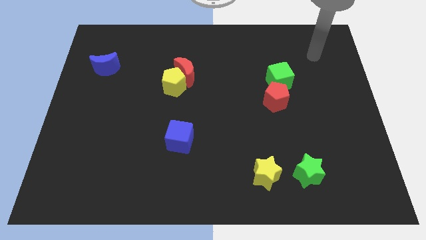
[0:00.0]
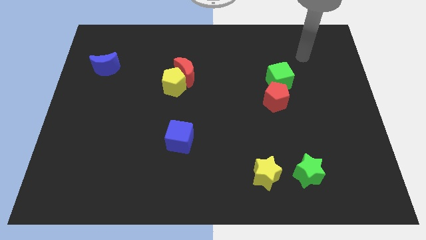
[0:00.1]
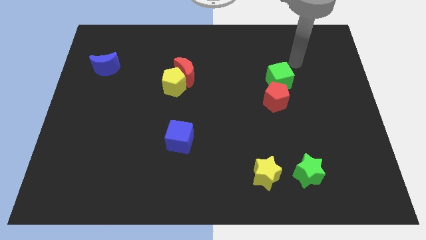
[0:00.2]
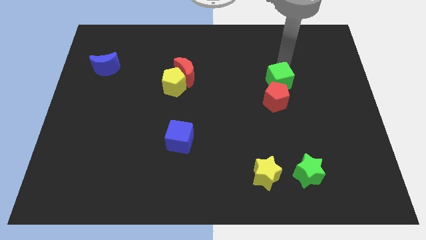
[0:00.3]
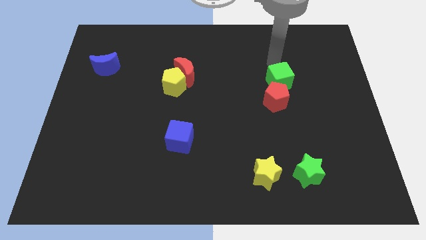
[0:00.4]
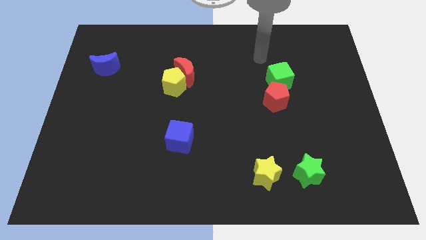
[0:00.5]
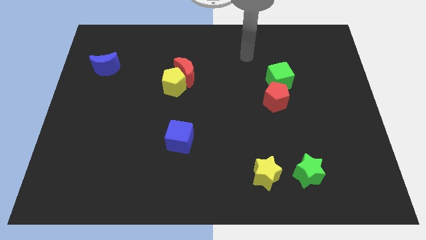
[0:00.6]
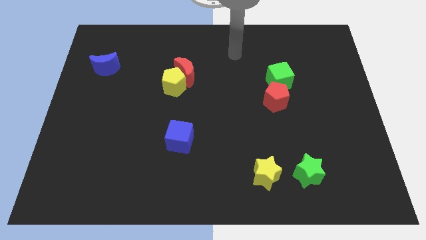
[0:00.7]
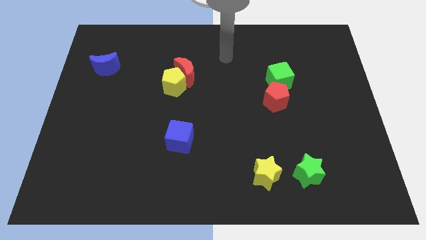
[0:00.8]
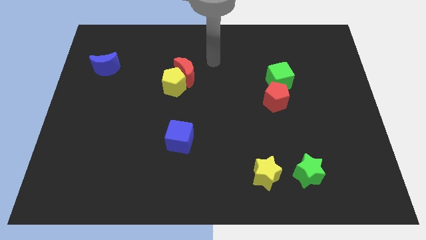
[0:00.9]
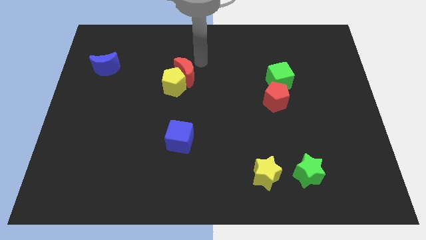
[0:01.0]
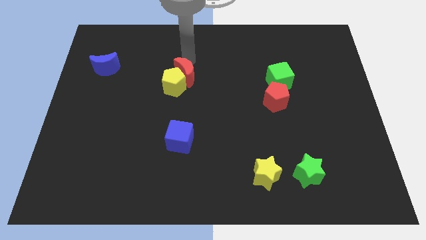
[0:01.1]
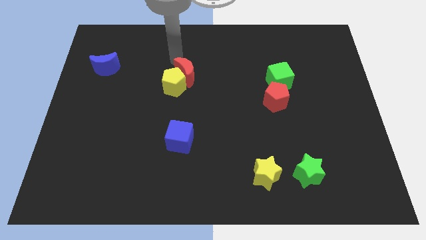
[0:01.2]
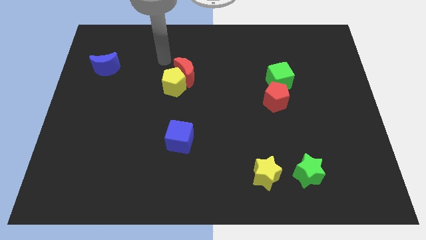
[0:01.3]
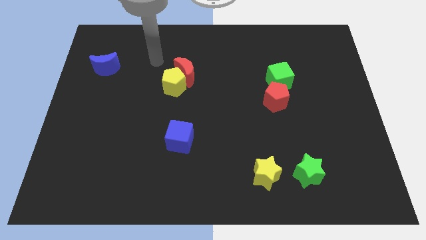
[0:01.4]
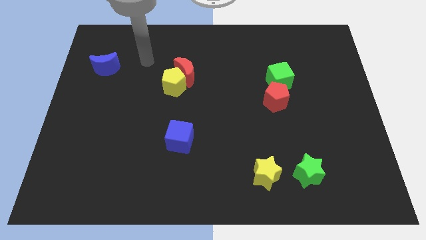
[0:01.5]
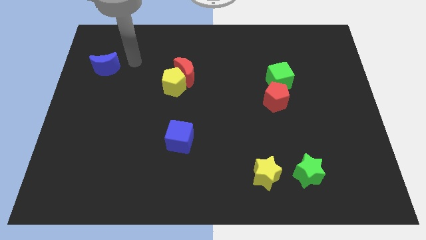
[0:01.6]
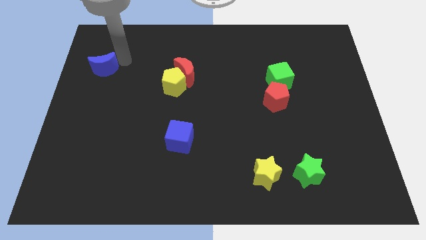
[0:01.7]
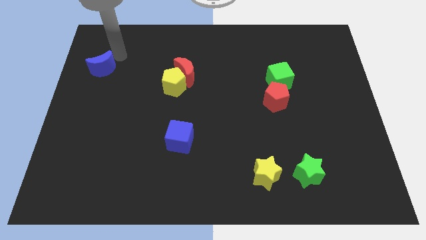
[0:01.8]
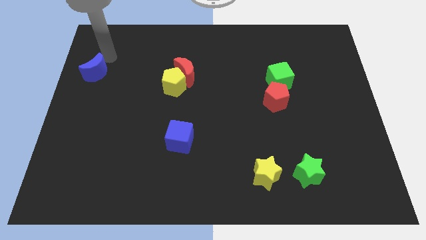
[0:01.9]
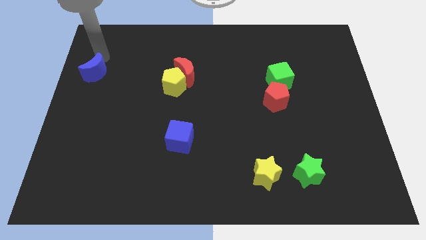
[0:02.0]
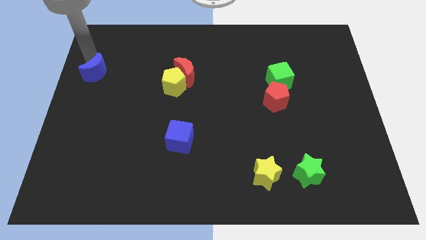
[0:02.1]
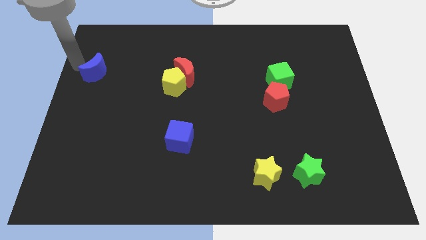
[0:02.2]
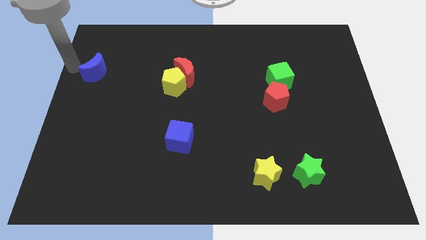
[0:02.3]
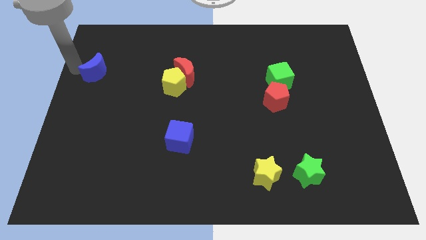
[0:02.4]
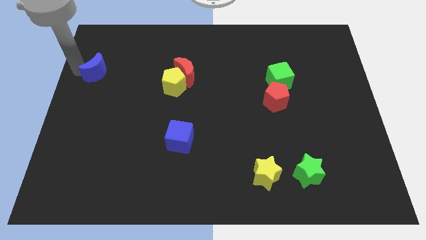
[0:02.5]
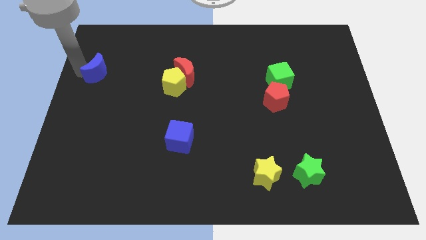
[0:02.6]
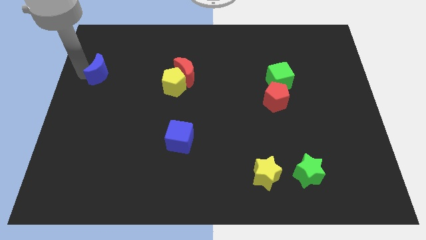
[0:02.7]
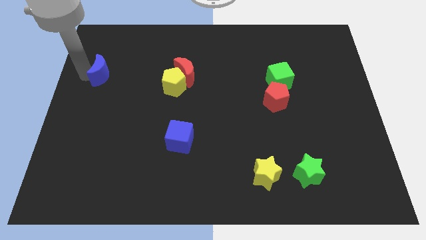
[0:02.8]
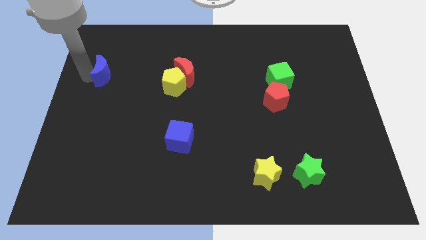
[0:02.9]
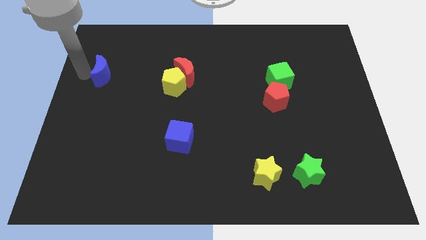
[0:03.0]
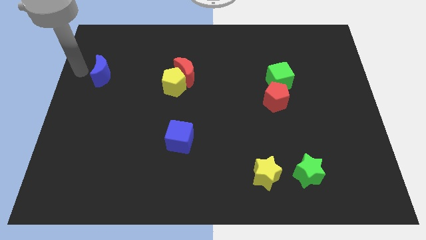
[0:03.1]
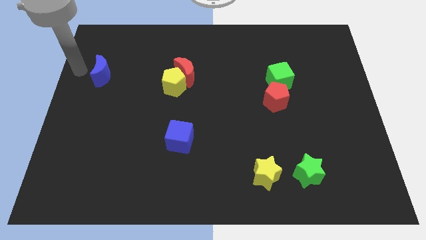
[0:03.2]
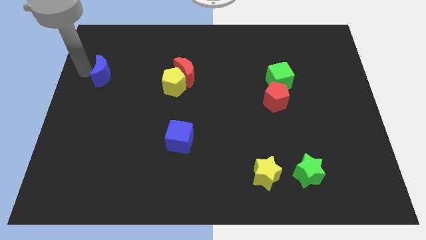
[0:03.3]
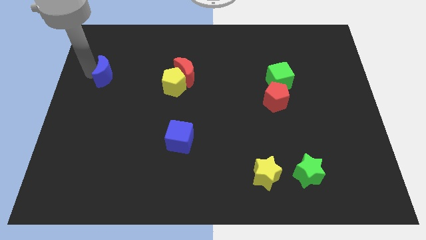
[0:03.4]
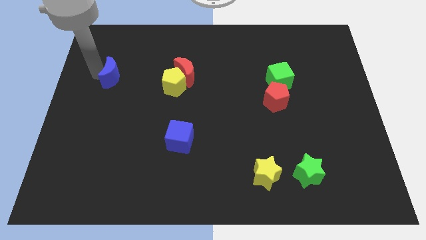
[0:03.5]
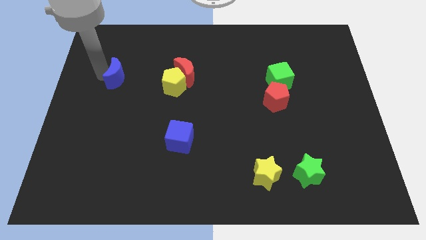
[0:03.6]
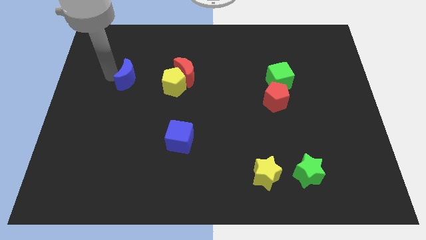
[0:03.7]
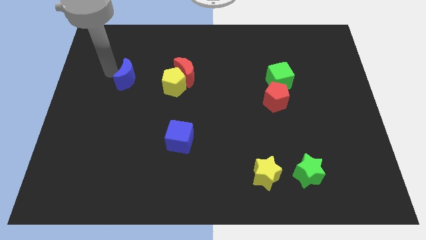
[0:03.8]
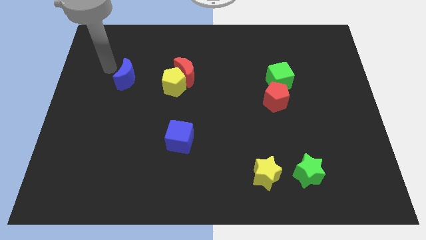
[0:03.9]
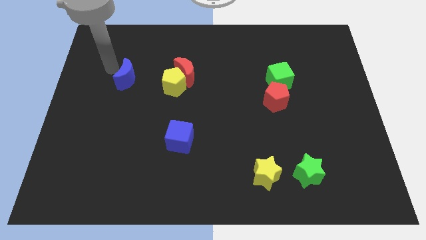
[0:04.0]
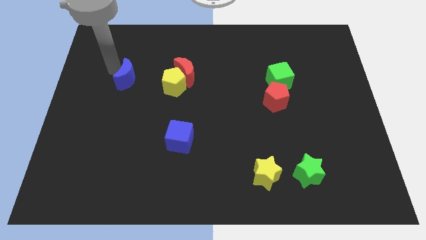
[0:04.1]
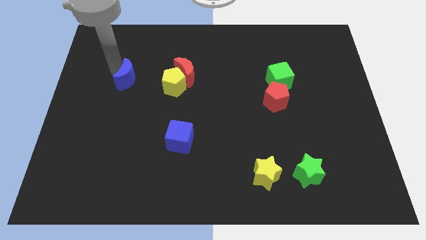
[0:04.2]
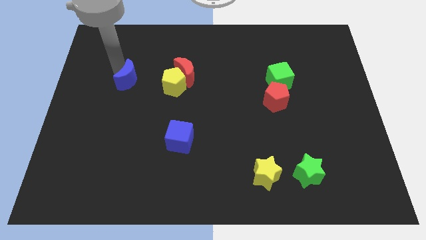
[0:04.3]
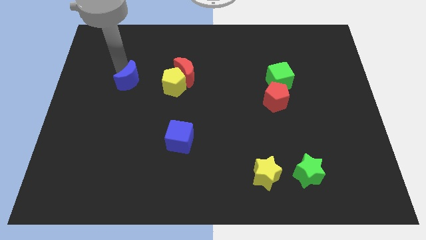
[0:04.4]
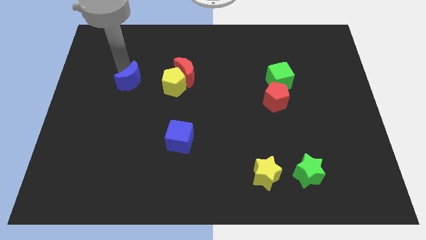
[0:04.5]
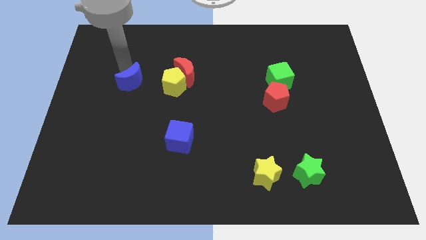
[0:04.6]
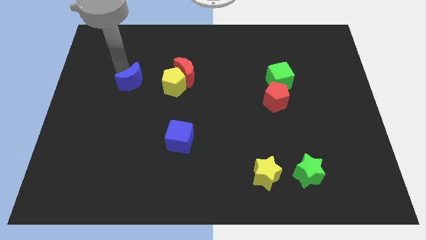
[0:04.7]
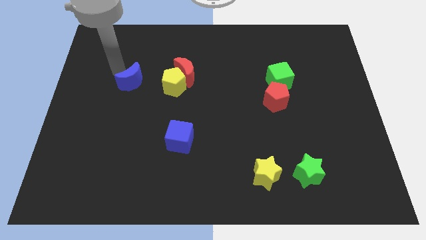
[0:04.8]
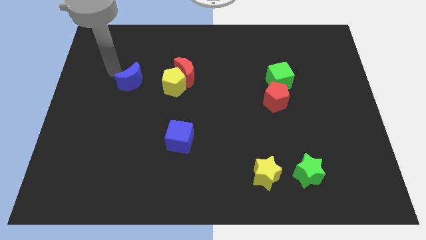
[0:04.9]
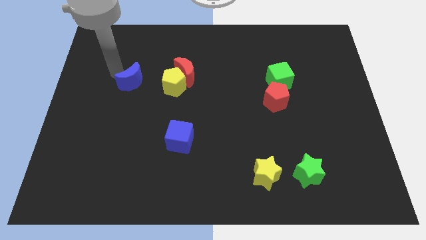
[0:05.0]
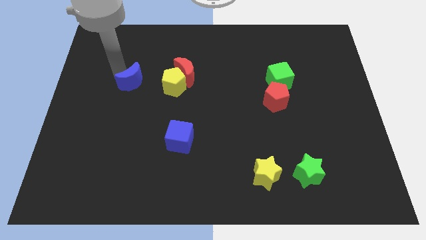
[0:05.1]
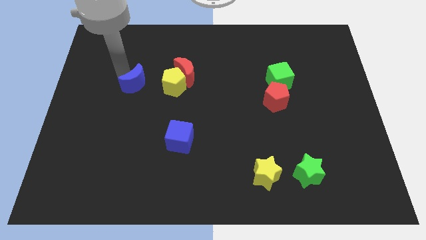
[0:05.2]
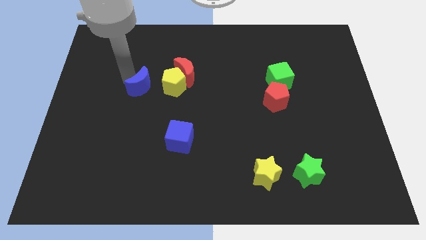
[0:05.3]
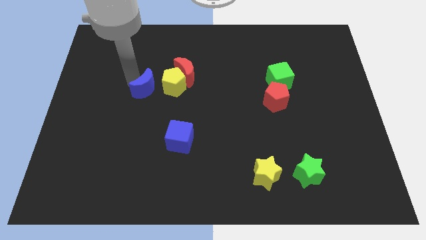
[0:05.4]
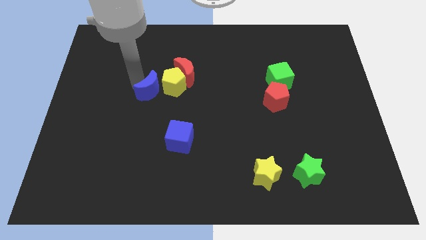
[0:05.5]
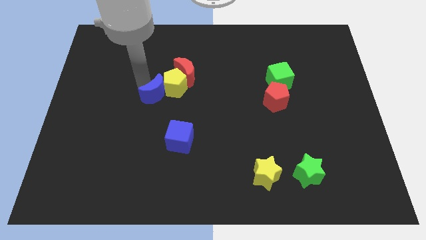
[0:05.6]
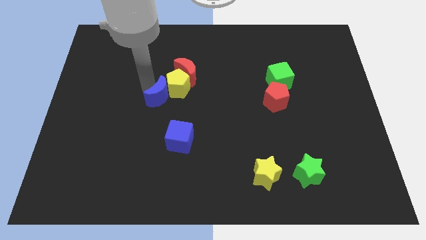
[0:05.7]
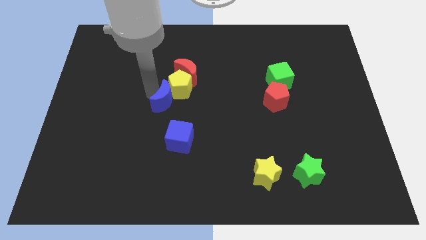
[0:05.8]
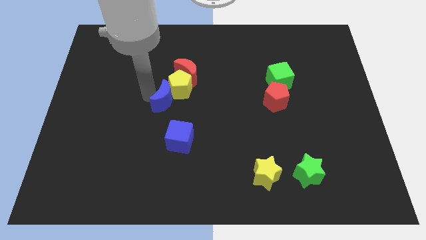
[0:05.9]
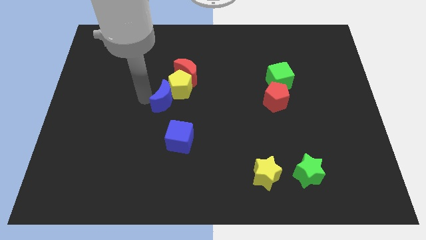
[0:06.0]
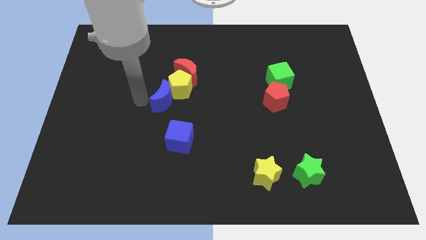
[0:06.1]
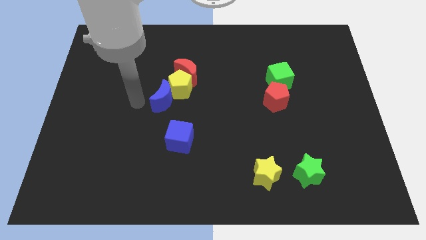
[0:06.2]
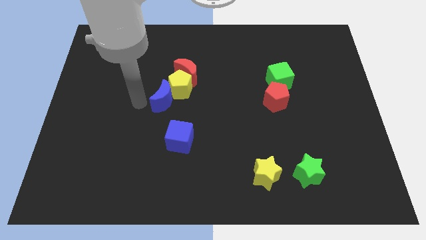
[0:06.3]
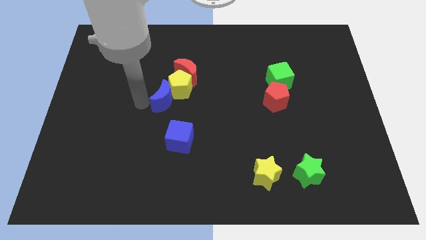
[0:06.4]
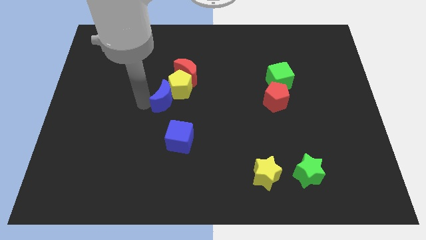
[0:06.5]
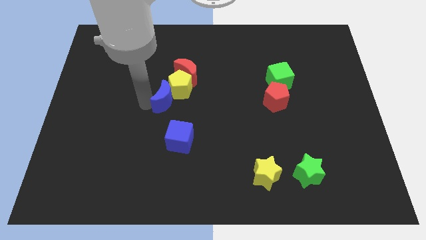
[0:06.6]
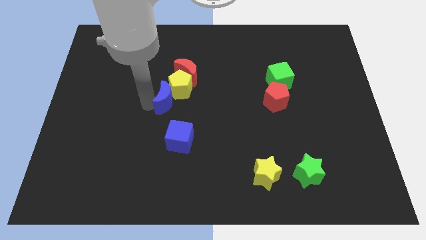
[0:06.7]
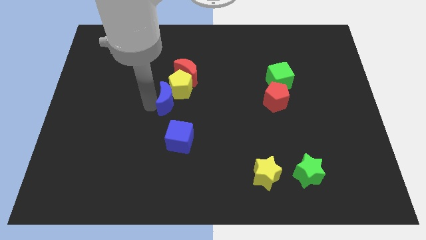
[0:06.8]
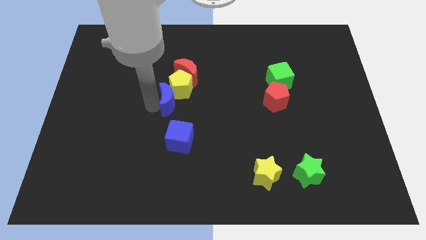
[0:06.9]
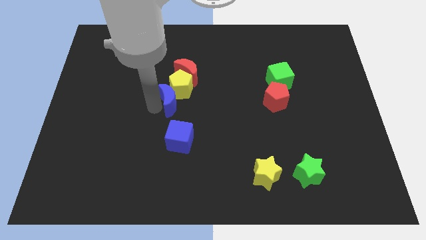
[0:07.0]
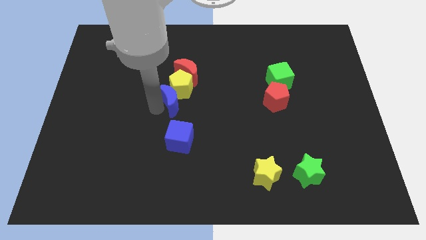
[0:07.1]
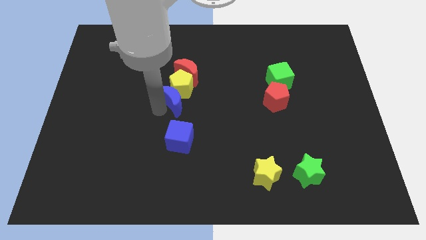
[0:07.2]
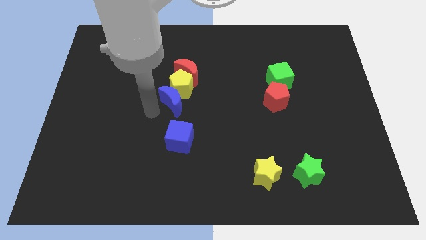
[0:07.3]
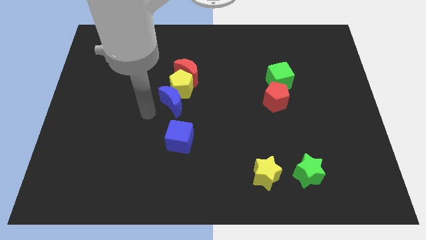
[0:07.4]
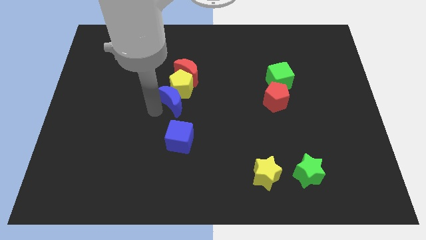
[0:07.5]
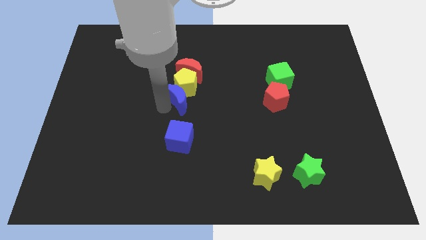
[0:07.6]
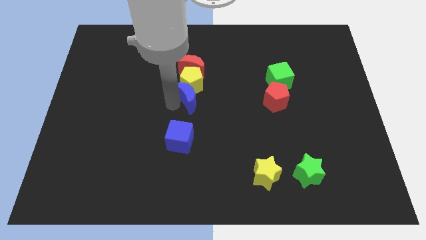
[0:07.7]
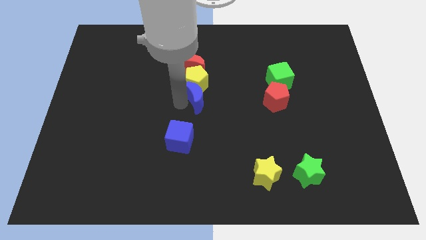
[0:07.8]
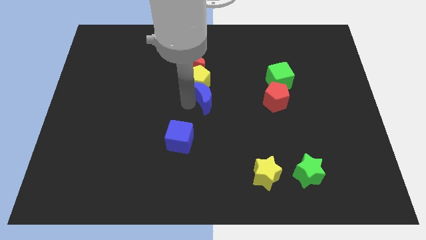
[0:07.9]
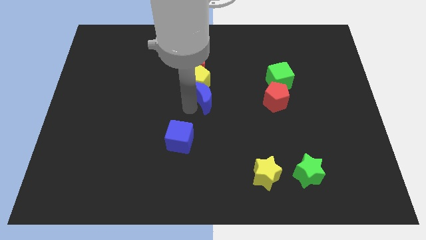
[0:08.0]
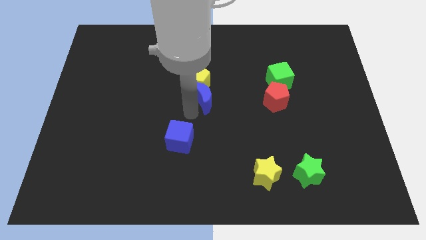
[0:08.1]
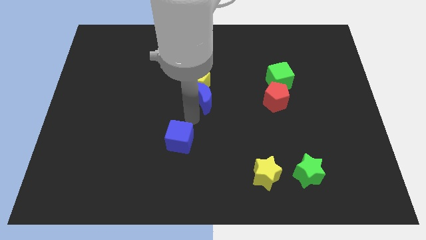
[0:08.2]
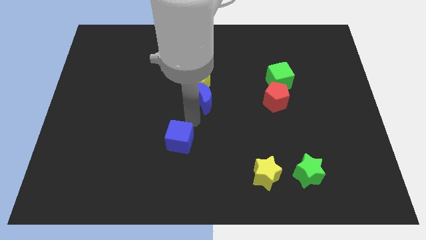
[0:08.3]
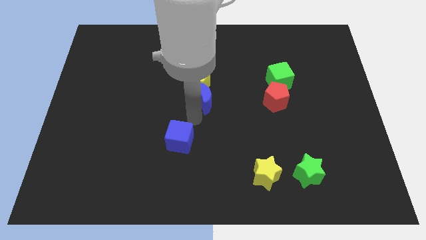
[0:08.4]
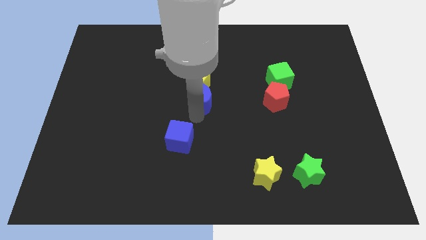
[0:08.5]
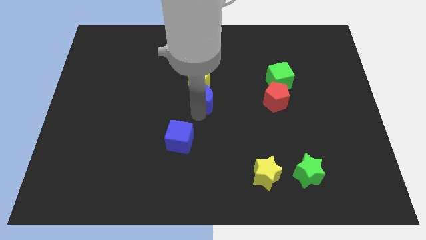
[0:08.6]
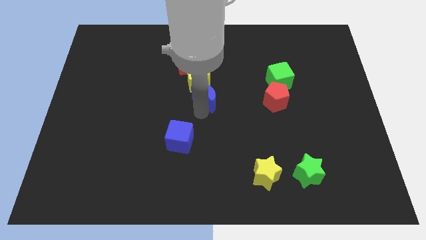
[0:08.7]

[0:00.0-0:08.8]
push the blue moon to the bottom right side of the red moon
